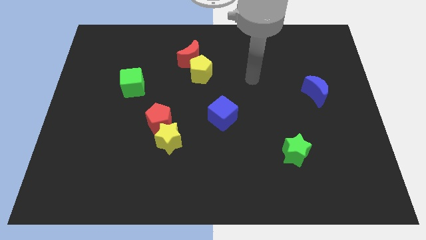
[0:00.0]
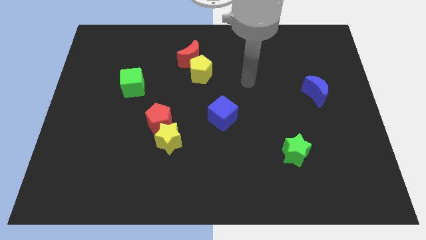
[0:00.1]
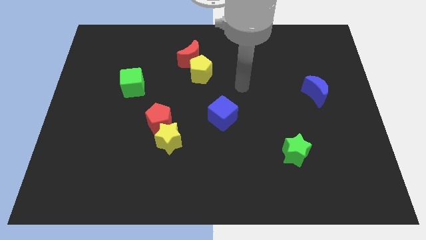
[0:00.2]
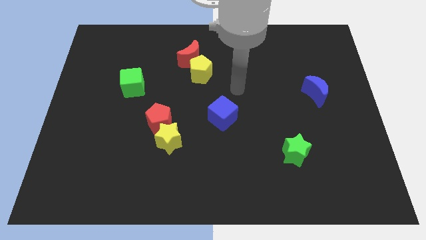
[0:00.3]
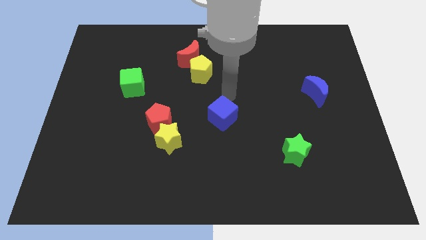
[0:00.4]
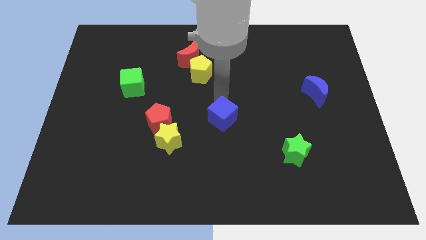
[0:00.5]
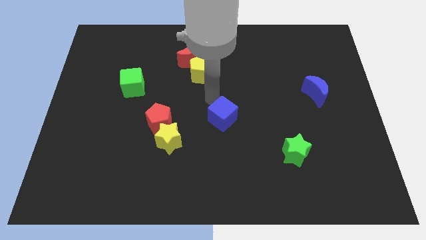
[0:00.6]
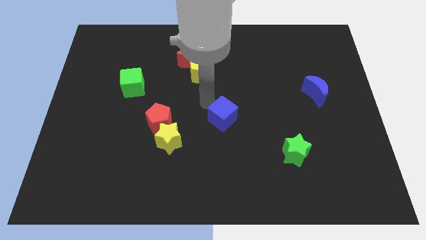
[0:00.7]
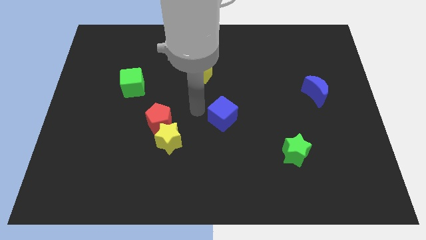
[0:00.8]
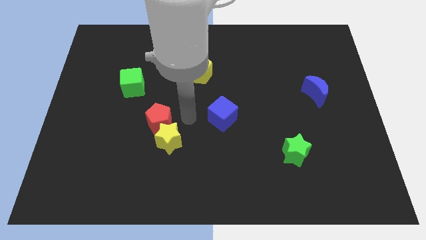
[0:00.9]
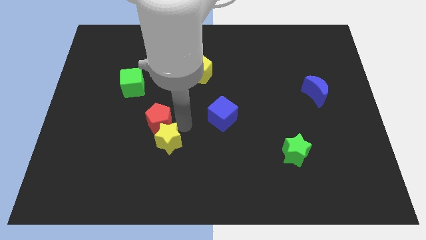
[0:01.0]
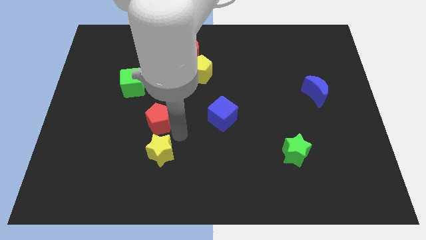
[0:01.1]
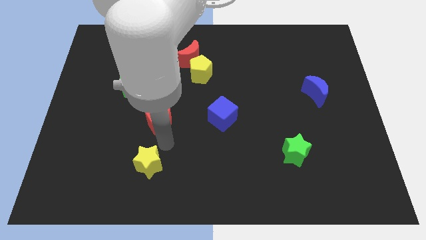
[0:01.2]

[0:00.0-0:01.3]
separate the red pentagon from the yellow star

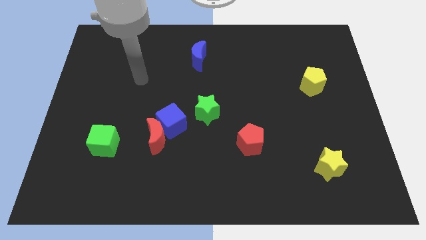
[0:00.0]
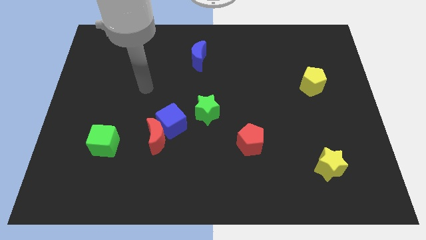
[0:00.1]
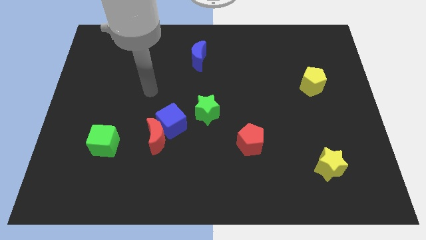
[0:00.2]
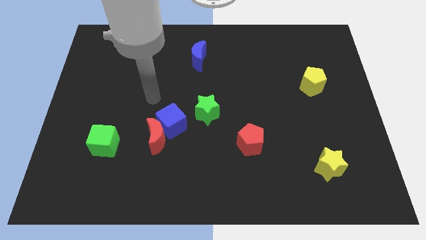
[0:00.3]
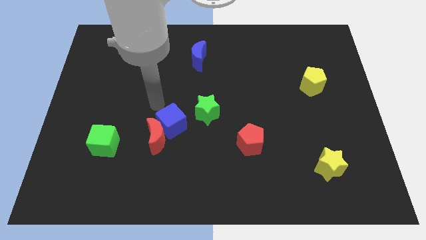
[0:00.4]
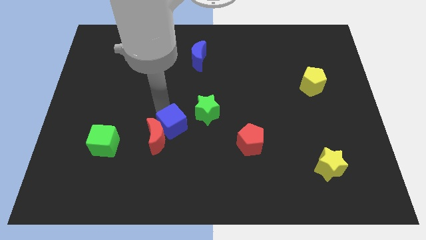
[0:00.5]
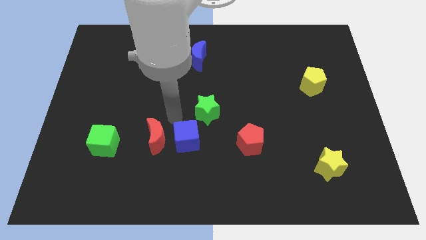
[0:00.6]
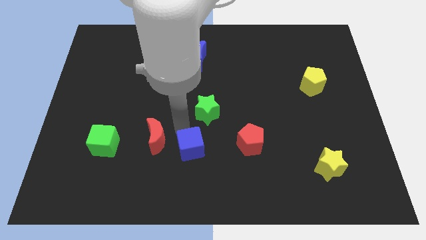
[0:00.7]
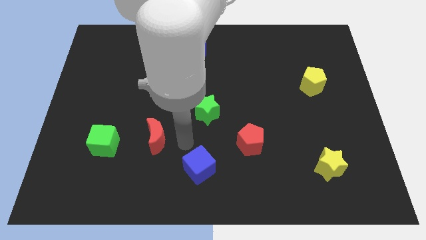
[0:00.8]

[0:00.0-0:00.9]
separate the red moon from the blue cube

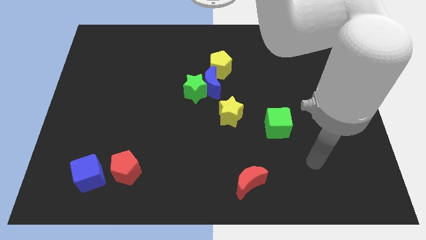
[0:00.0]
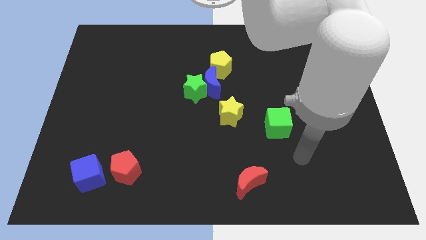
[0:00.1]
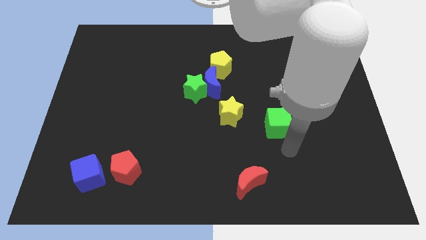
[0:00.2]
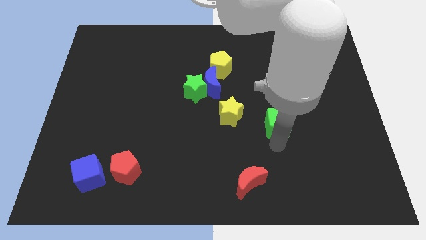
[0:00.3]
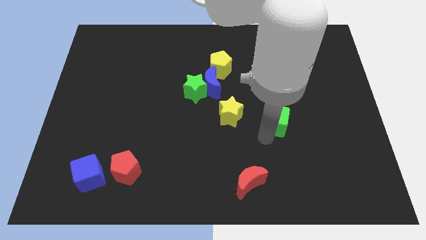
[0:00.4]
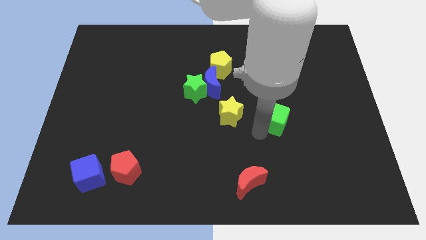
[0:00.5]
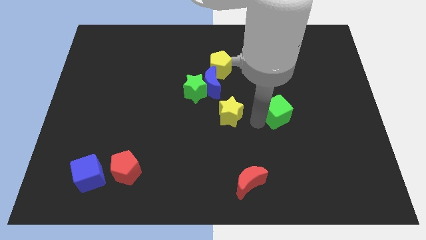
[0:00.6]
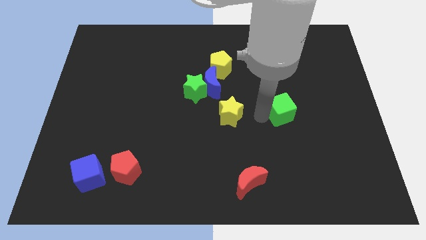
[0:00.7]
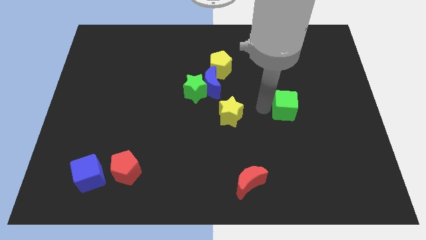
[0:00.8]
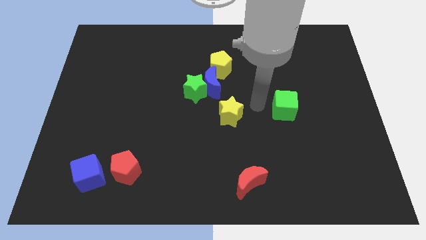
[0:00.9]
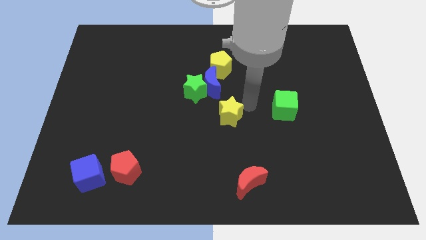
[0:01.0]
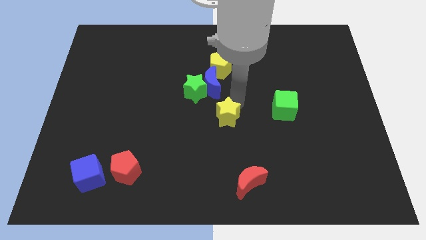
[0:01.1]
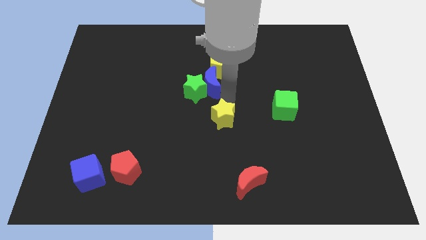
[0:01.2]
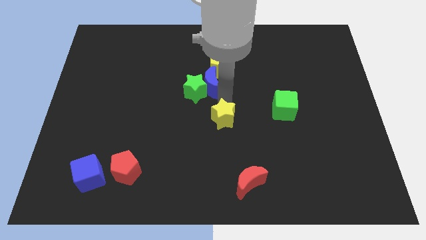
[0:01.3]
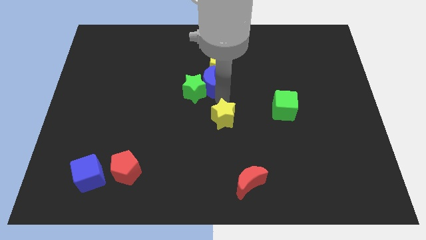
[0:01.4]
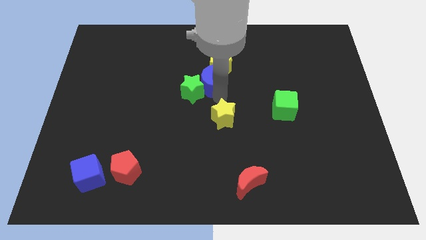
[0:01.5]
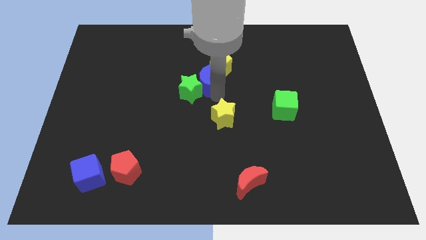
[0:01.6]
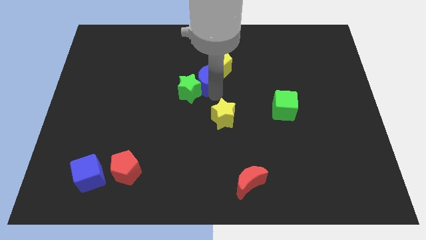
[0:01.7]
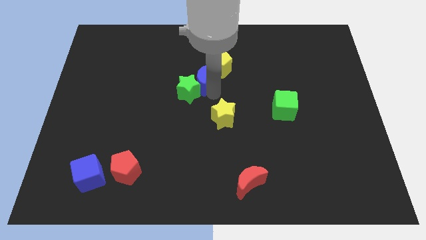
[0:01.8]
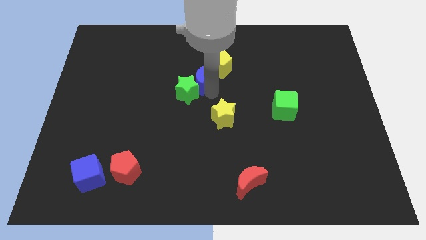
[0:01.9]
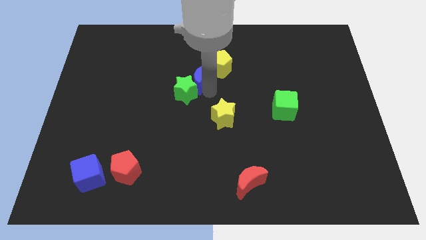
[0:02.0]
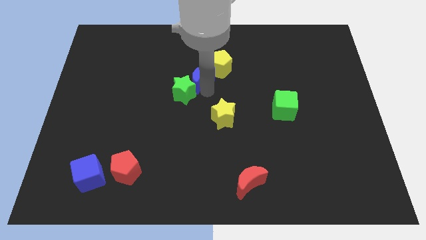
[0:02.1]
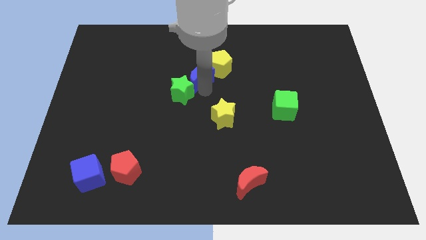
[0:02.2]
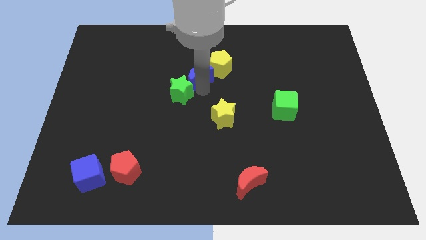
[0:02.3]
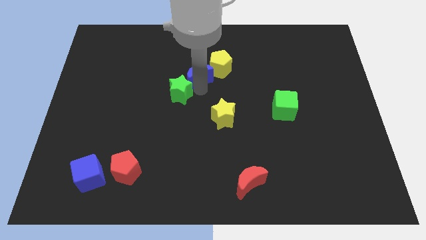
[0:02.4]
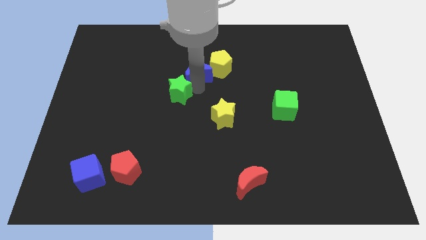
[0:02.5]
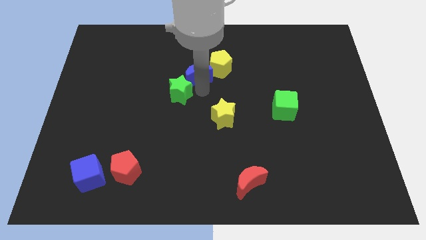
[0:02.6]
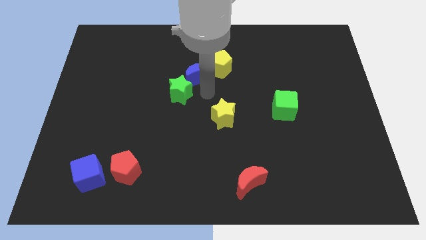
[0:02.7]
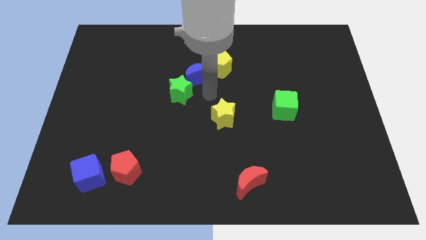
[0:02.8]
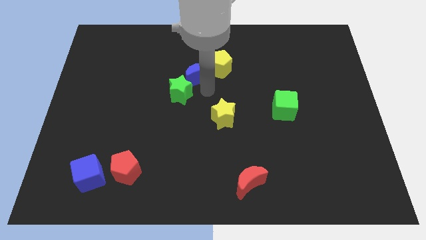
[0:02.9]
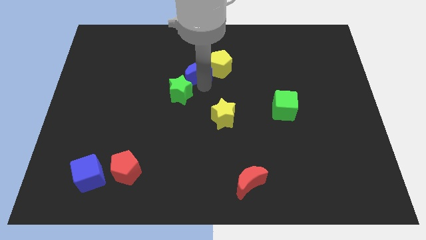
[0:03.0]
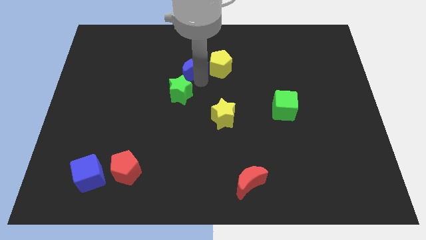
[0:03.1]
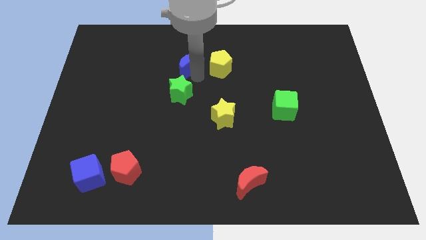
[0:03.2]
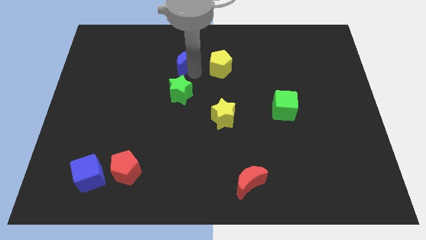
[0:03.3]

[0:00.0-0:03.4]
move the blue moon away from the clump

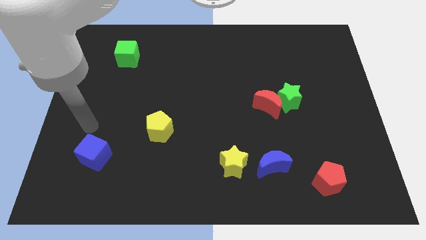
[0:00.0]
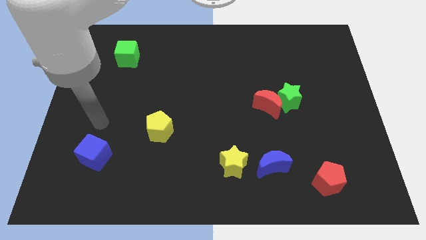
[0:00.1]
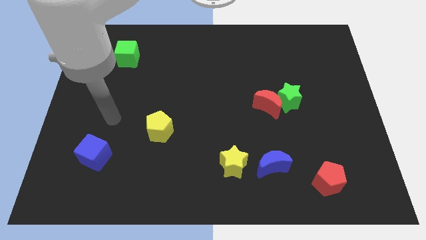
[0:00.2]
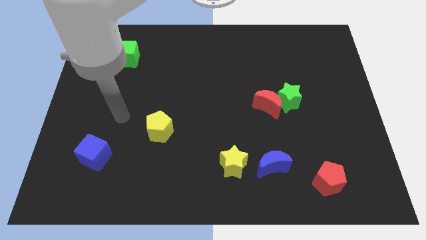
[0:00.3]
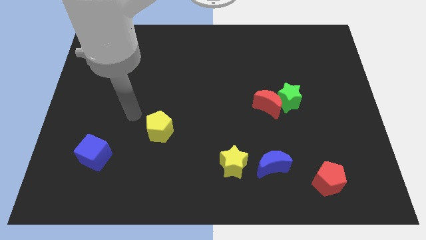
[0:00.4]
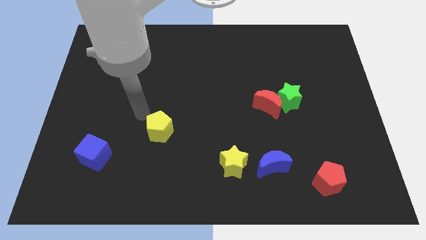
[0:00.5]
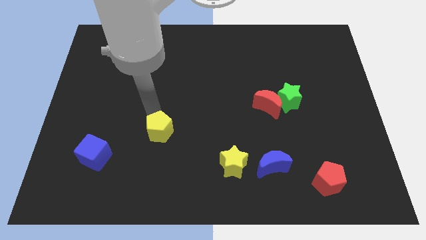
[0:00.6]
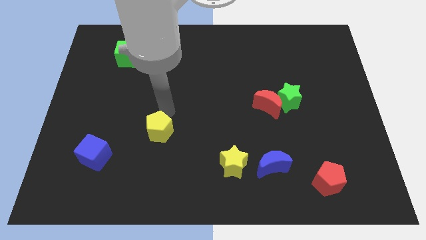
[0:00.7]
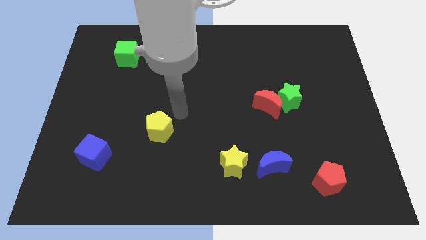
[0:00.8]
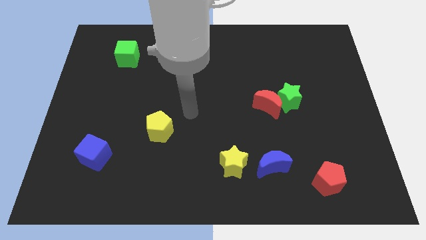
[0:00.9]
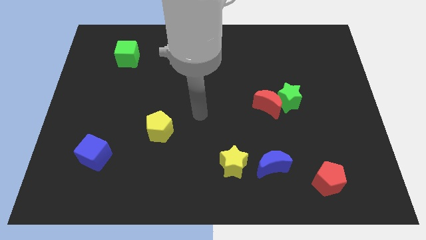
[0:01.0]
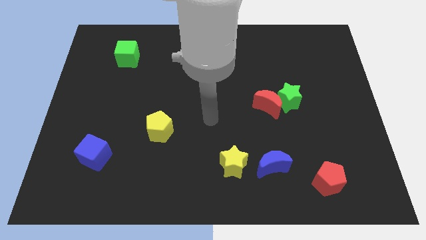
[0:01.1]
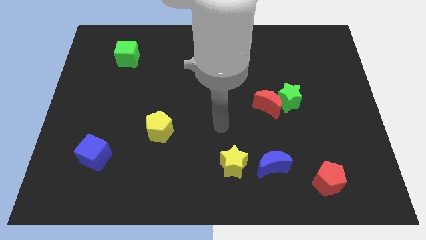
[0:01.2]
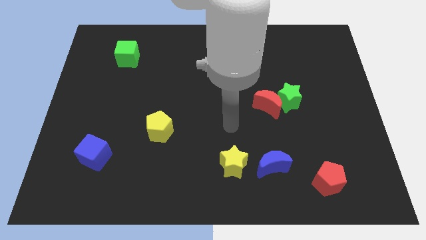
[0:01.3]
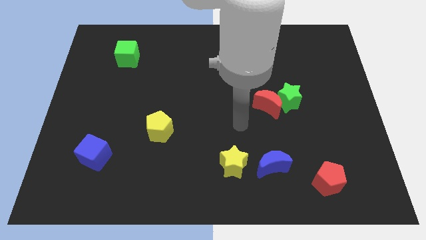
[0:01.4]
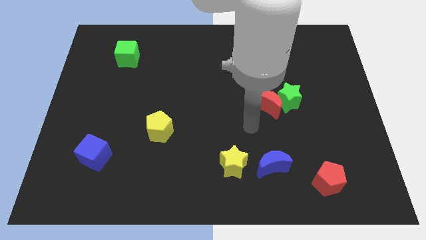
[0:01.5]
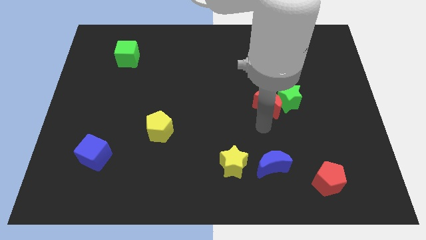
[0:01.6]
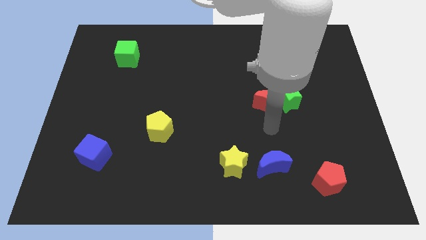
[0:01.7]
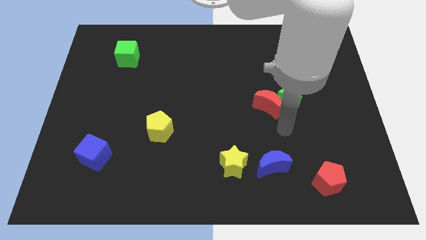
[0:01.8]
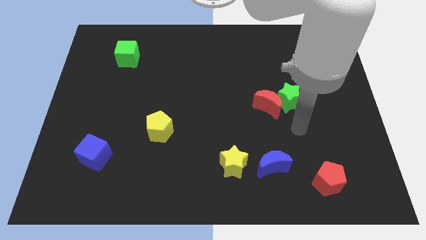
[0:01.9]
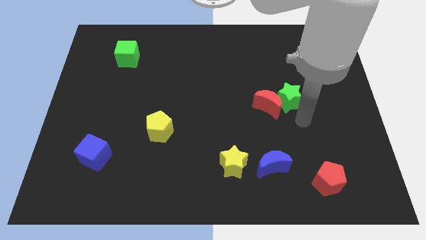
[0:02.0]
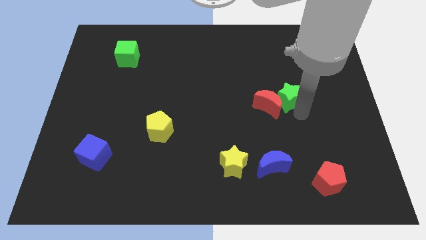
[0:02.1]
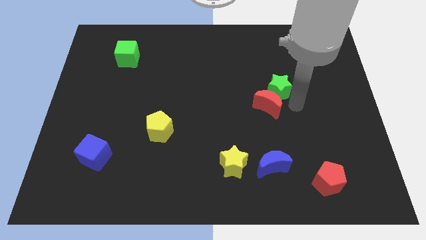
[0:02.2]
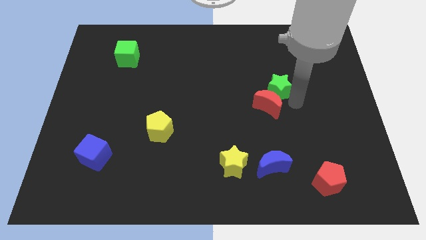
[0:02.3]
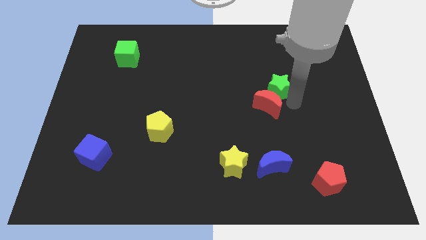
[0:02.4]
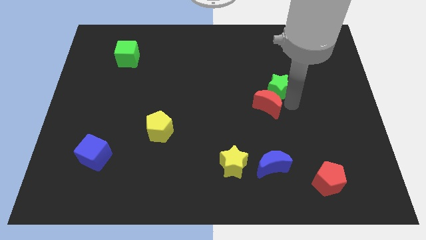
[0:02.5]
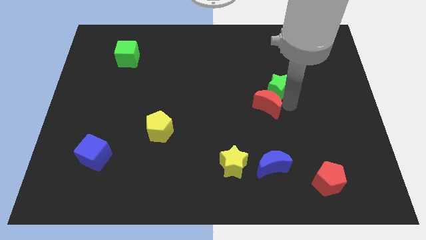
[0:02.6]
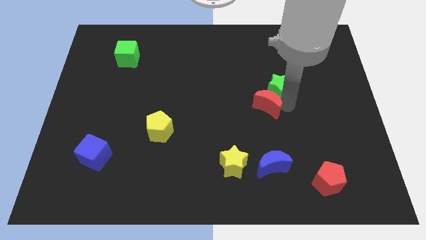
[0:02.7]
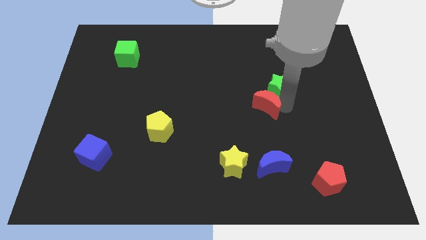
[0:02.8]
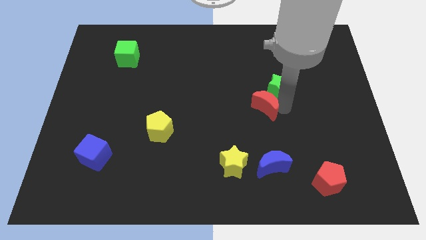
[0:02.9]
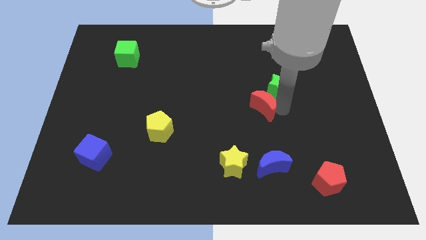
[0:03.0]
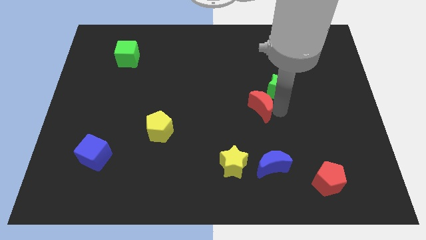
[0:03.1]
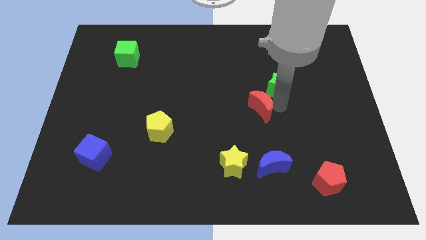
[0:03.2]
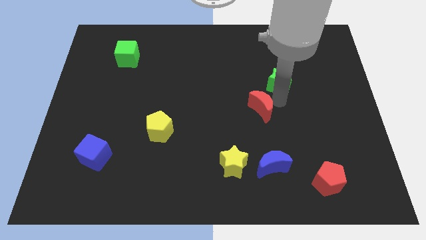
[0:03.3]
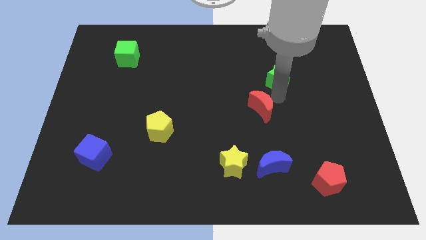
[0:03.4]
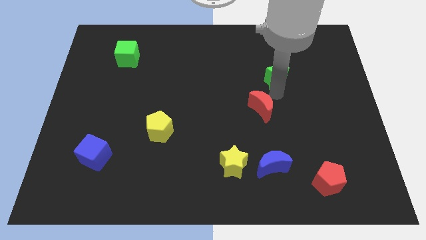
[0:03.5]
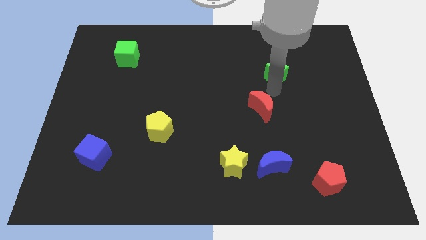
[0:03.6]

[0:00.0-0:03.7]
pull the red moon apart from the green star

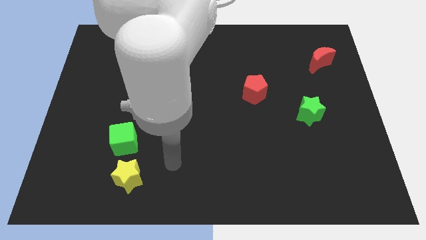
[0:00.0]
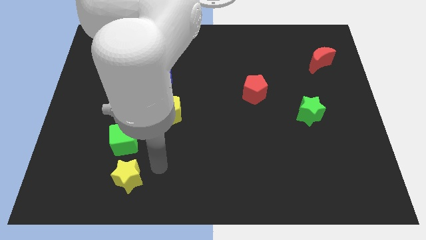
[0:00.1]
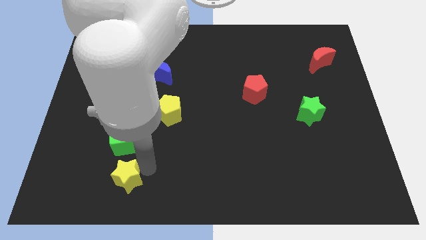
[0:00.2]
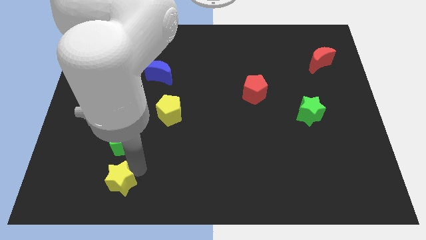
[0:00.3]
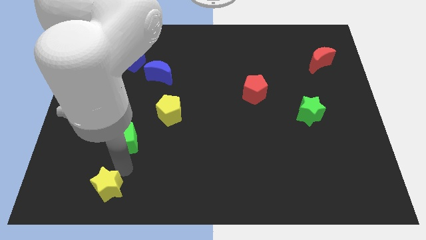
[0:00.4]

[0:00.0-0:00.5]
separate the green cube from the yellow star
